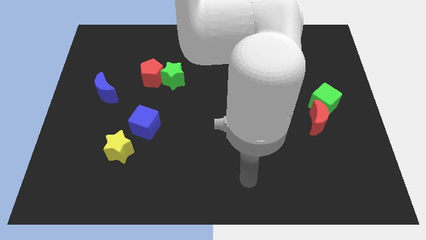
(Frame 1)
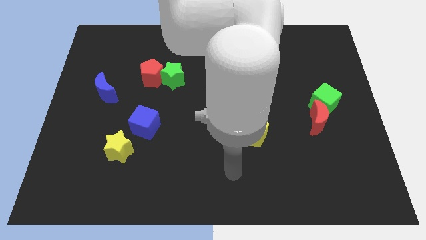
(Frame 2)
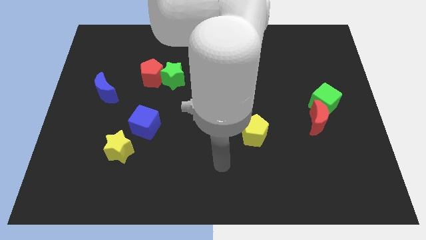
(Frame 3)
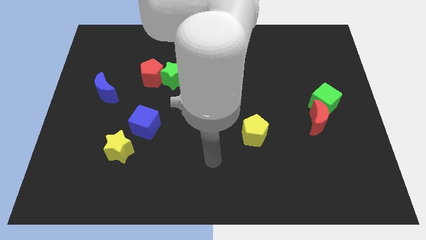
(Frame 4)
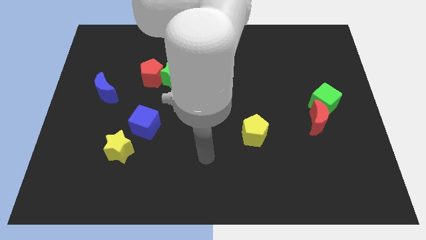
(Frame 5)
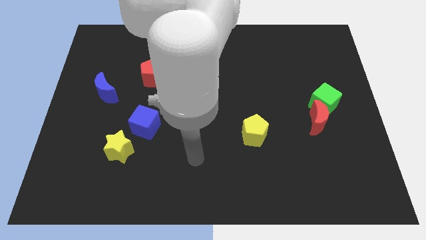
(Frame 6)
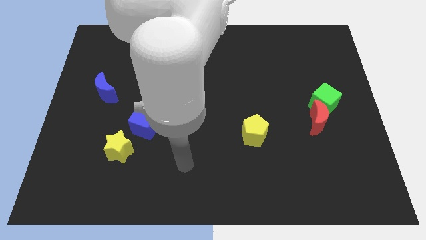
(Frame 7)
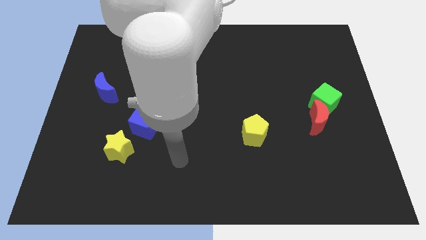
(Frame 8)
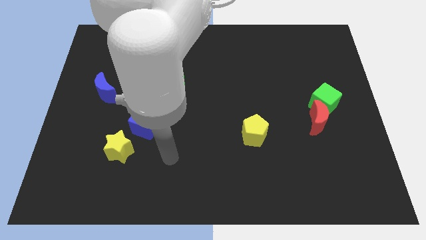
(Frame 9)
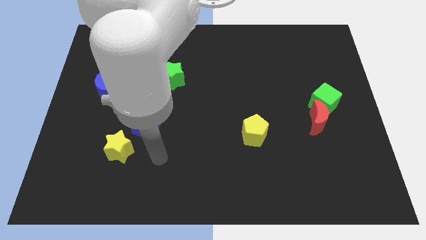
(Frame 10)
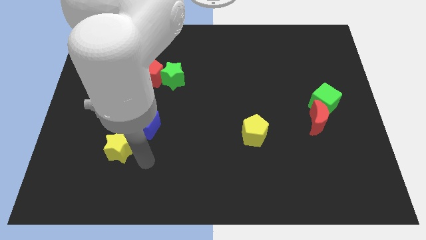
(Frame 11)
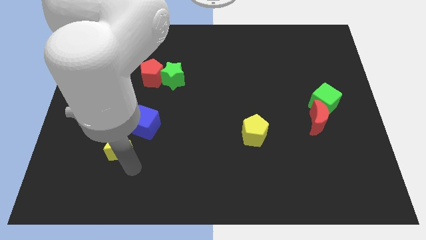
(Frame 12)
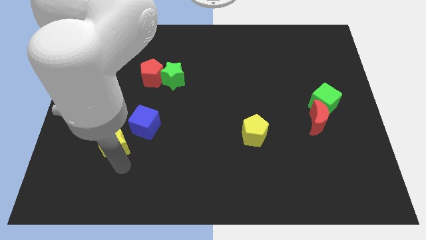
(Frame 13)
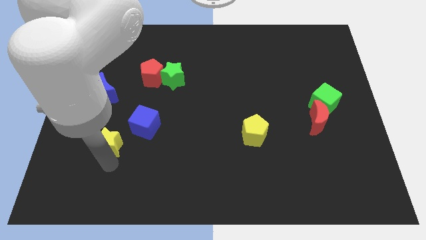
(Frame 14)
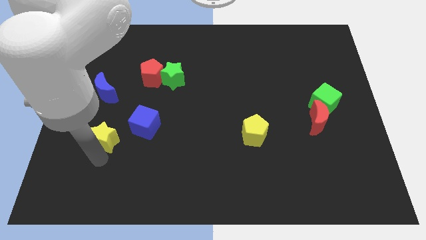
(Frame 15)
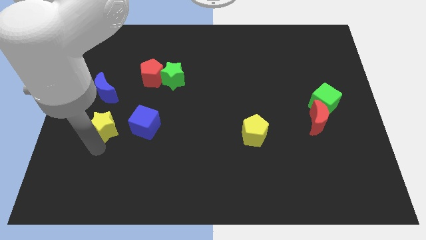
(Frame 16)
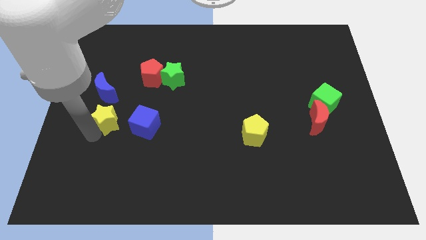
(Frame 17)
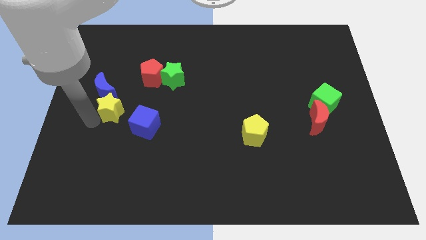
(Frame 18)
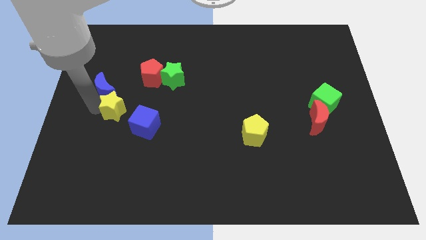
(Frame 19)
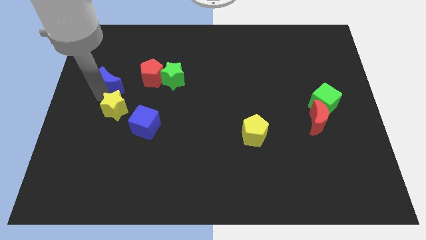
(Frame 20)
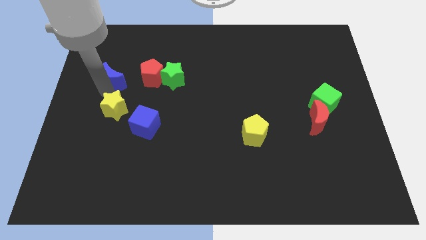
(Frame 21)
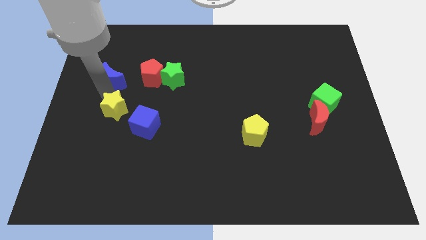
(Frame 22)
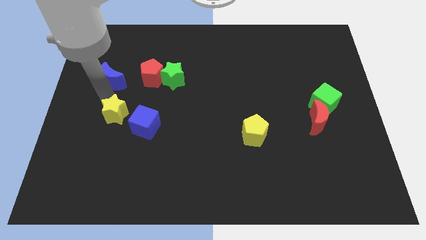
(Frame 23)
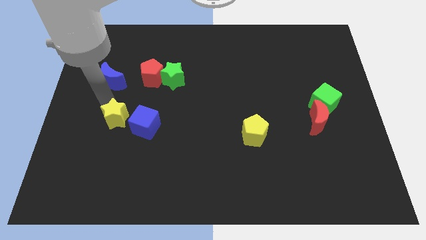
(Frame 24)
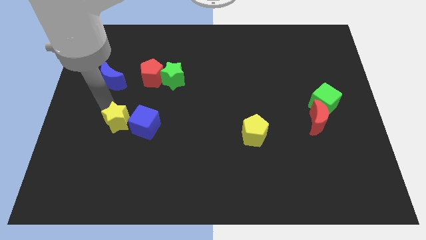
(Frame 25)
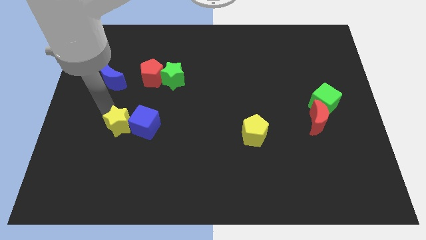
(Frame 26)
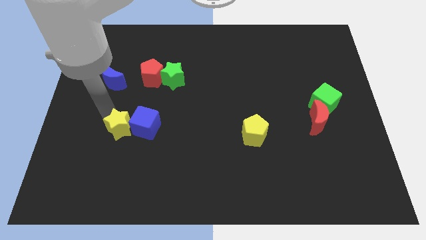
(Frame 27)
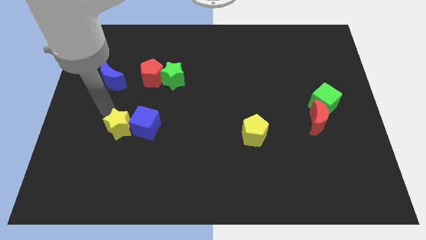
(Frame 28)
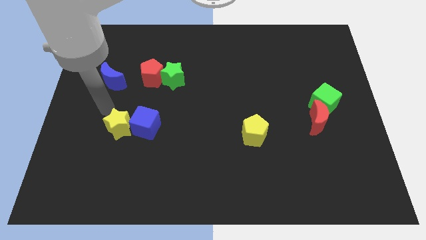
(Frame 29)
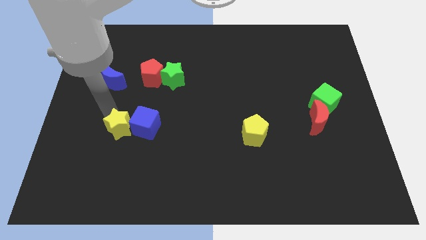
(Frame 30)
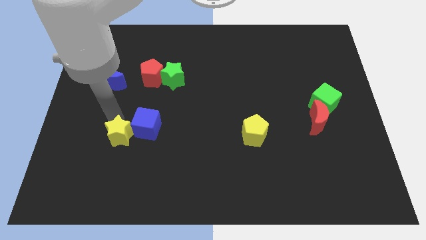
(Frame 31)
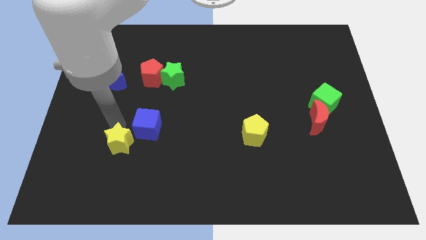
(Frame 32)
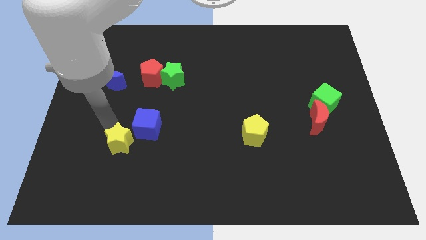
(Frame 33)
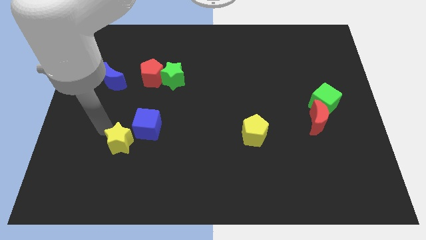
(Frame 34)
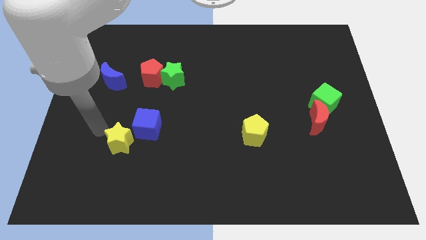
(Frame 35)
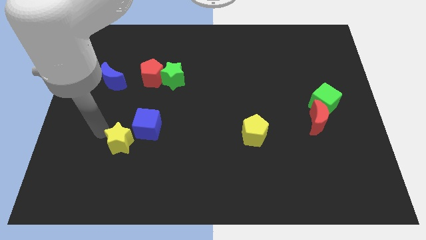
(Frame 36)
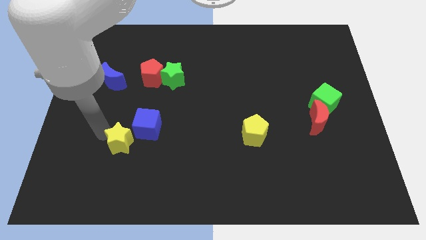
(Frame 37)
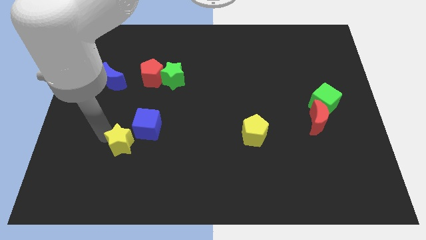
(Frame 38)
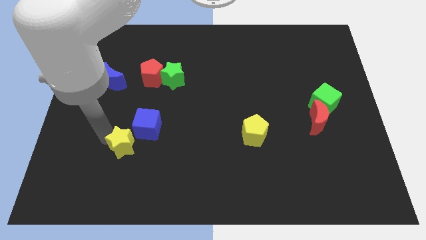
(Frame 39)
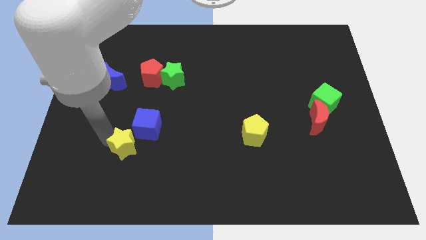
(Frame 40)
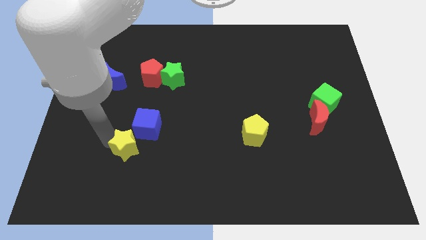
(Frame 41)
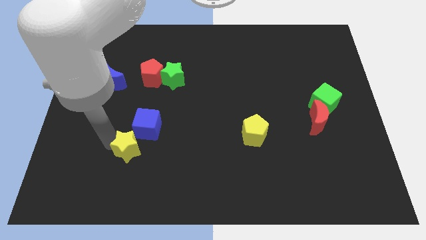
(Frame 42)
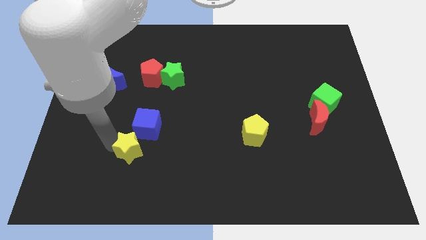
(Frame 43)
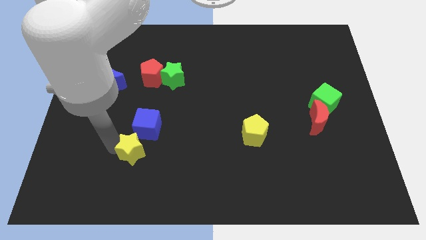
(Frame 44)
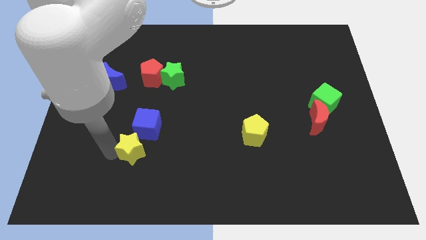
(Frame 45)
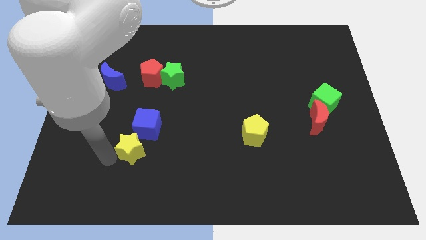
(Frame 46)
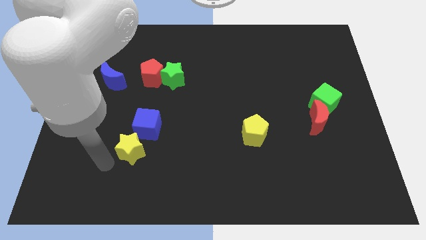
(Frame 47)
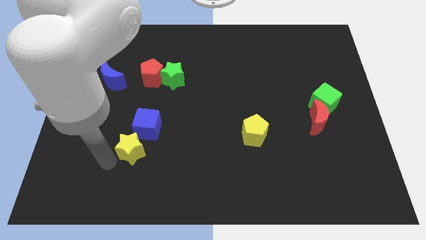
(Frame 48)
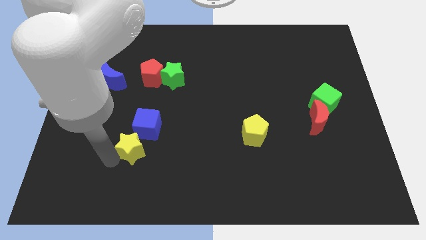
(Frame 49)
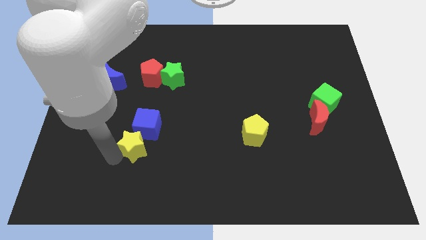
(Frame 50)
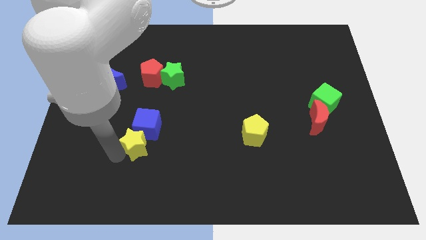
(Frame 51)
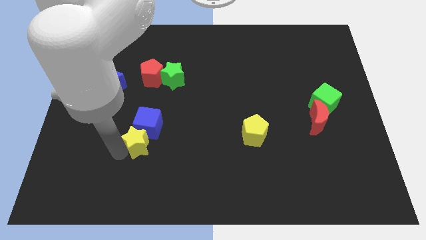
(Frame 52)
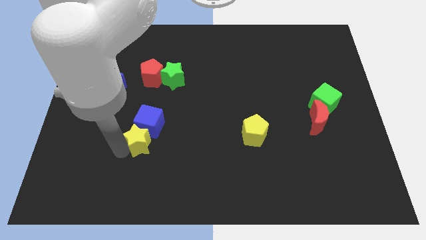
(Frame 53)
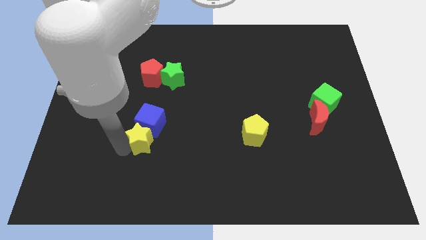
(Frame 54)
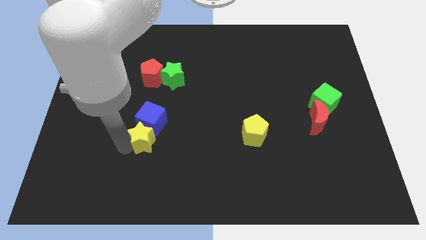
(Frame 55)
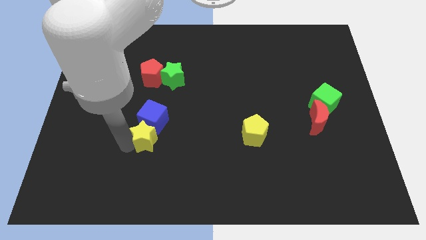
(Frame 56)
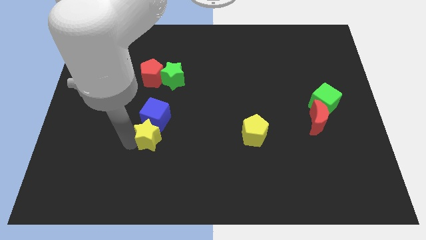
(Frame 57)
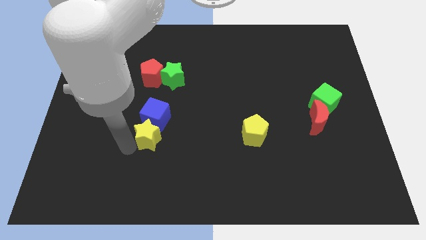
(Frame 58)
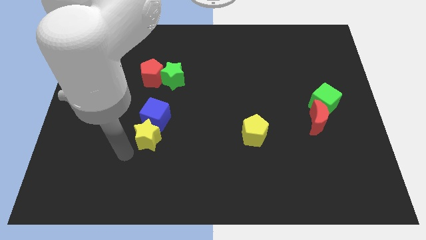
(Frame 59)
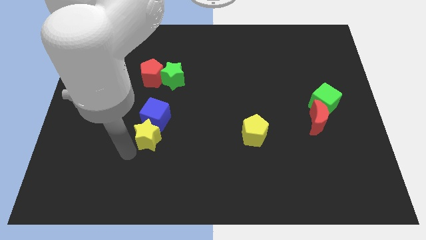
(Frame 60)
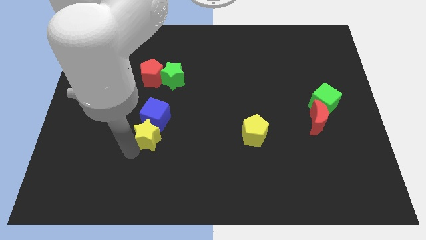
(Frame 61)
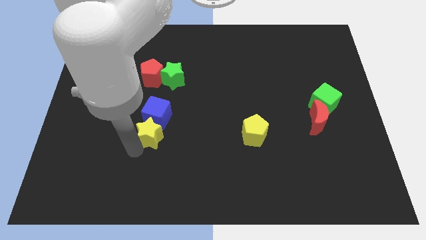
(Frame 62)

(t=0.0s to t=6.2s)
slide the yellow star up and right a little

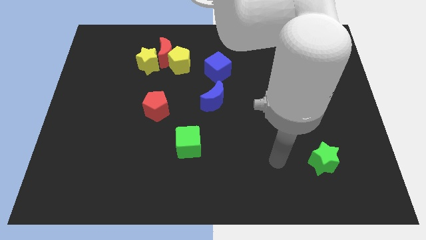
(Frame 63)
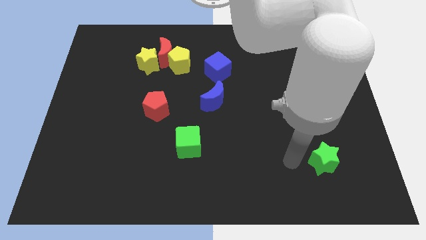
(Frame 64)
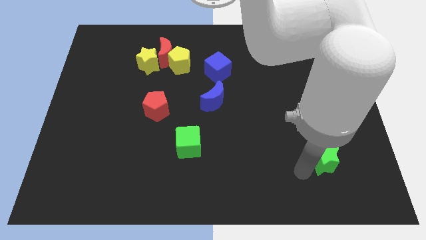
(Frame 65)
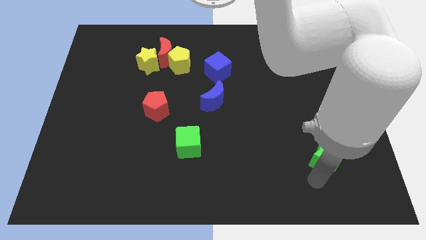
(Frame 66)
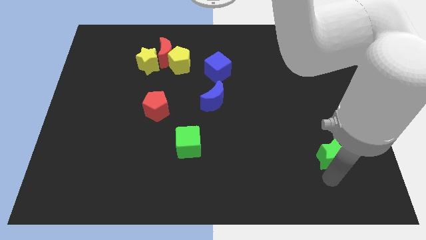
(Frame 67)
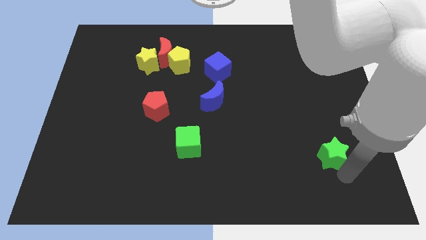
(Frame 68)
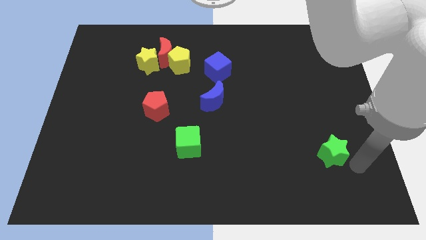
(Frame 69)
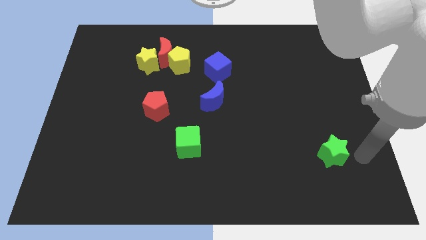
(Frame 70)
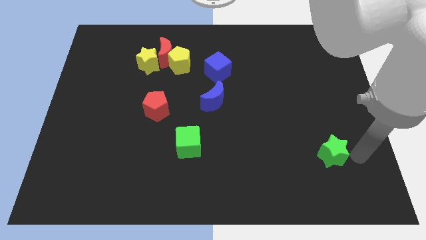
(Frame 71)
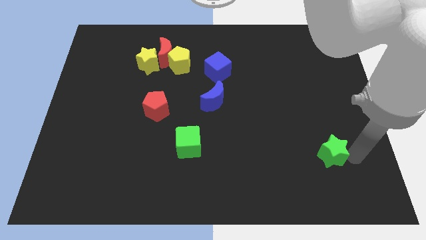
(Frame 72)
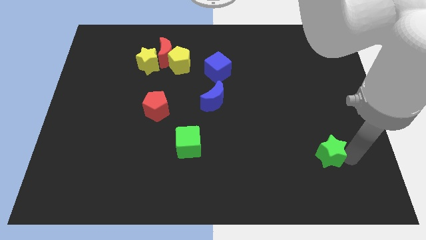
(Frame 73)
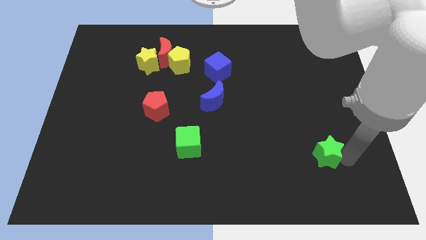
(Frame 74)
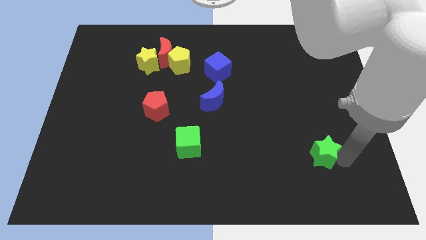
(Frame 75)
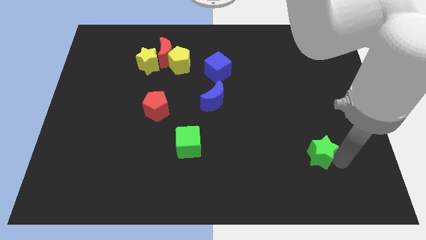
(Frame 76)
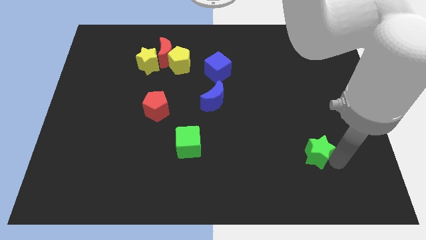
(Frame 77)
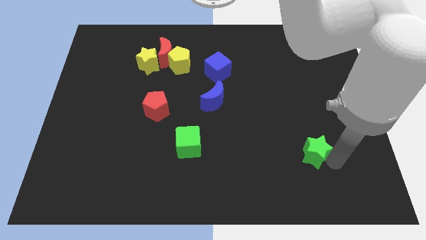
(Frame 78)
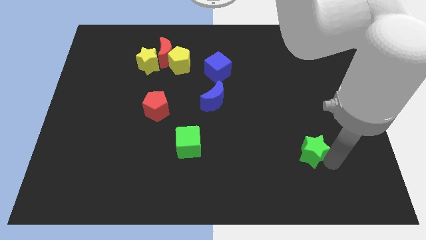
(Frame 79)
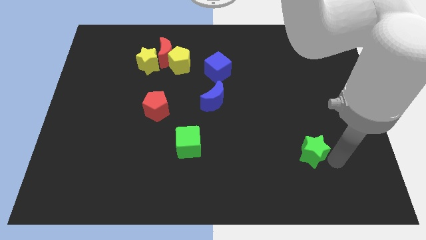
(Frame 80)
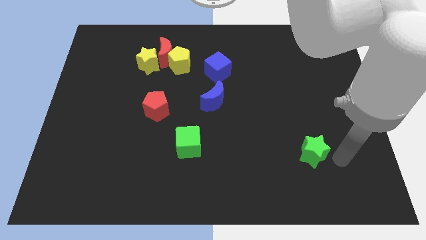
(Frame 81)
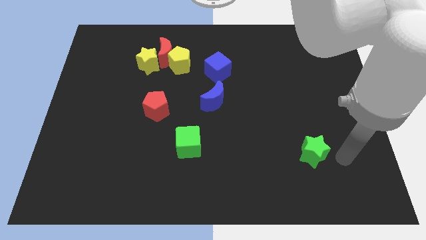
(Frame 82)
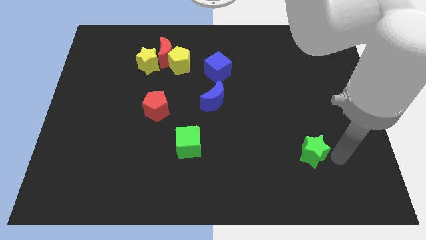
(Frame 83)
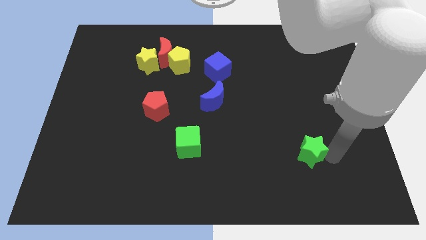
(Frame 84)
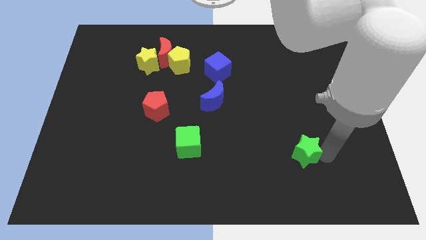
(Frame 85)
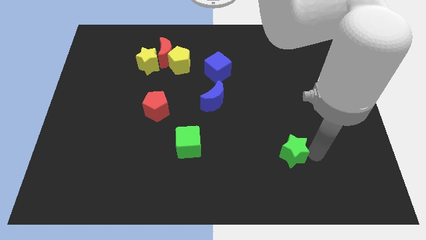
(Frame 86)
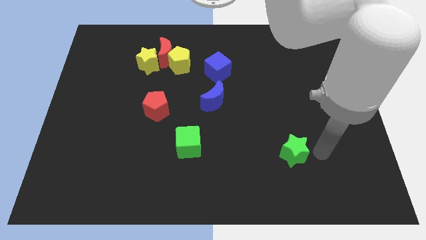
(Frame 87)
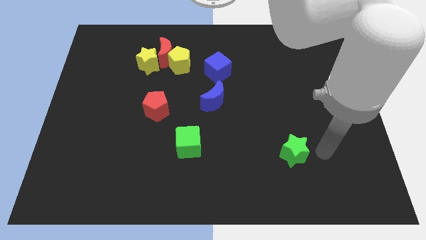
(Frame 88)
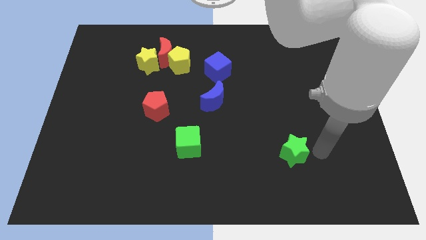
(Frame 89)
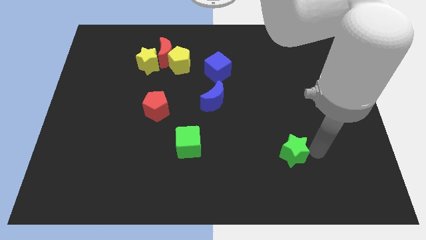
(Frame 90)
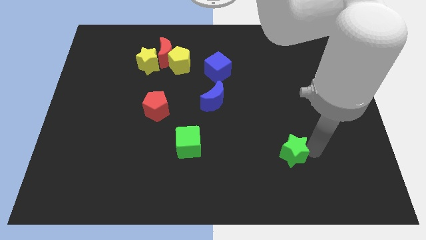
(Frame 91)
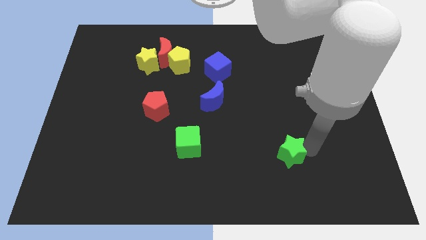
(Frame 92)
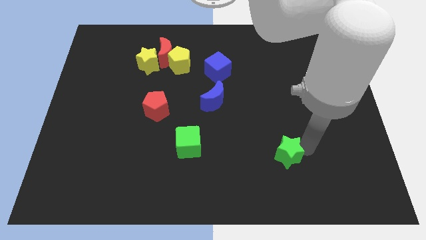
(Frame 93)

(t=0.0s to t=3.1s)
push the green star to the left slightly
